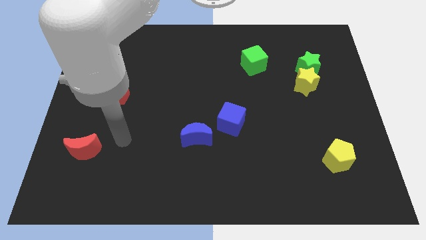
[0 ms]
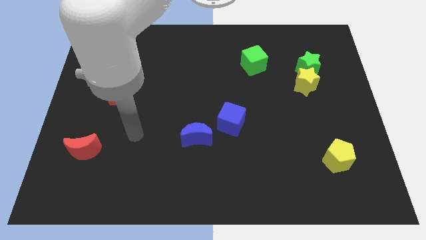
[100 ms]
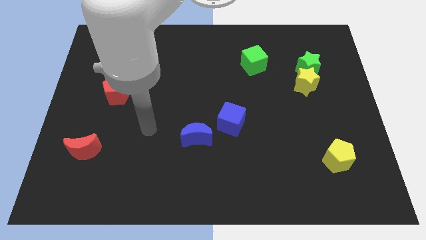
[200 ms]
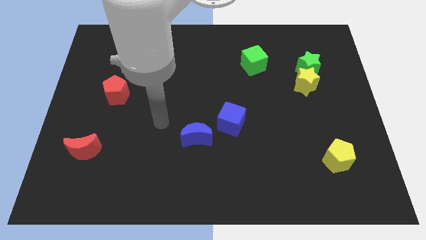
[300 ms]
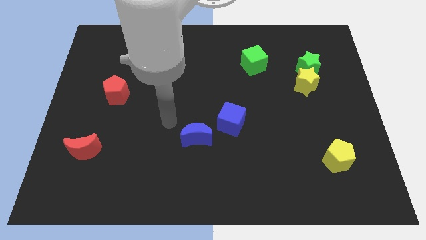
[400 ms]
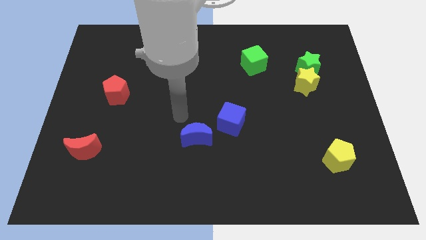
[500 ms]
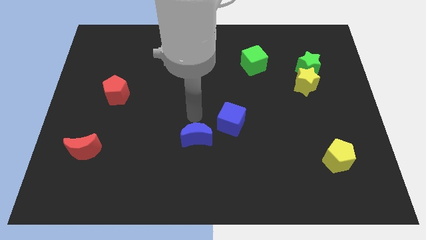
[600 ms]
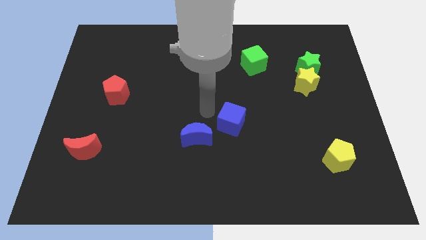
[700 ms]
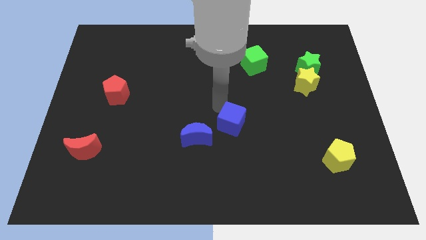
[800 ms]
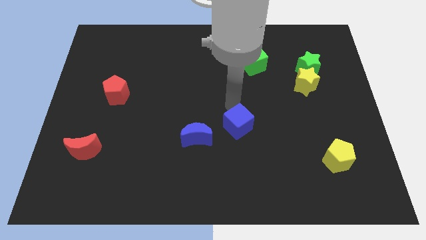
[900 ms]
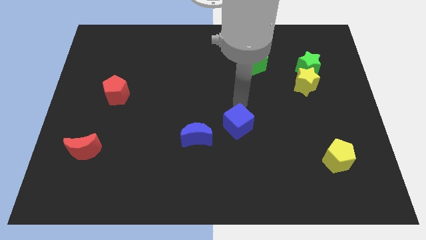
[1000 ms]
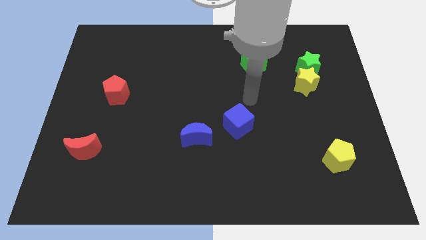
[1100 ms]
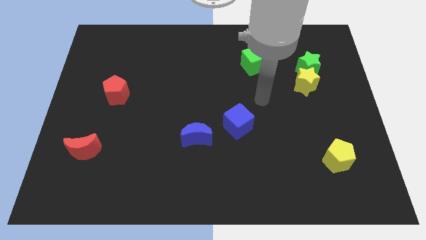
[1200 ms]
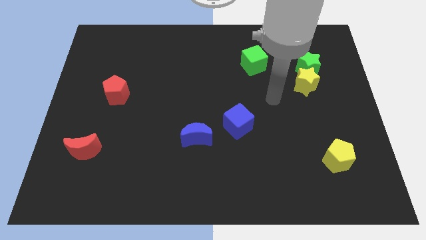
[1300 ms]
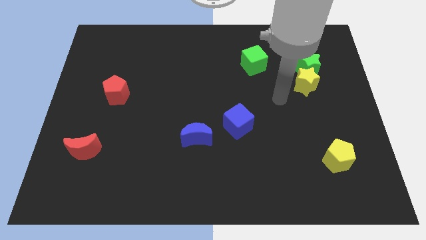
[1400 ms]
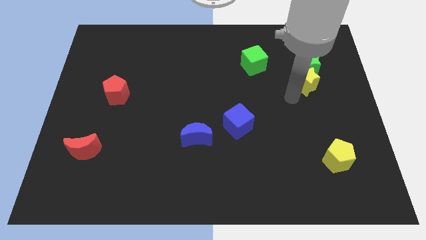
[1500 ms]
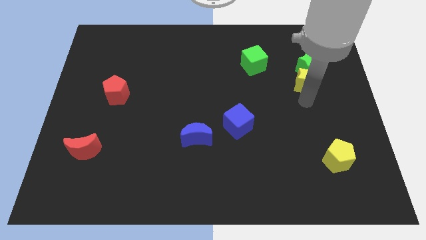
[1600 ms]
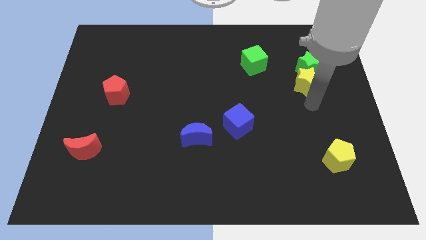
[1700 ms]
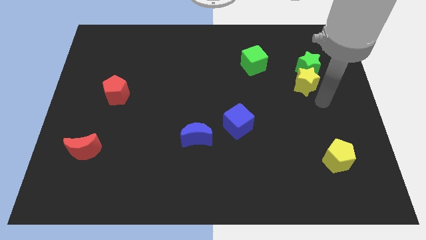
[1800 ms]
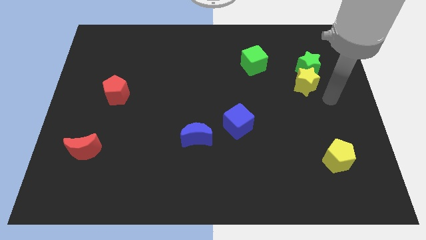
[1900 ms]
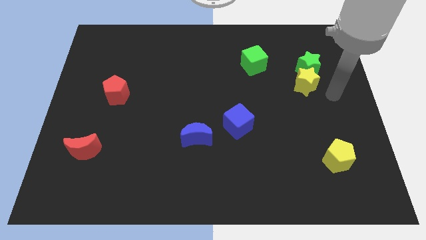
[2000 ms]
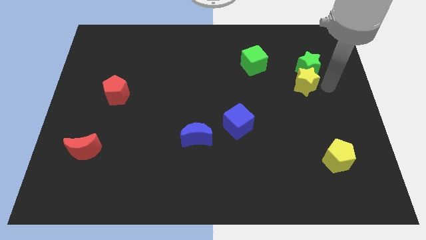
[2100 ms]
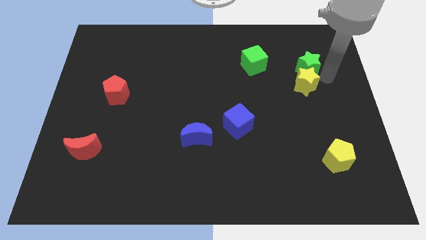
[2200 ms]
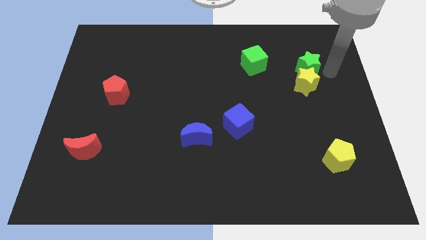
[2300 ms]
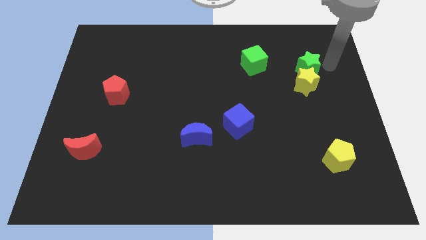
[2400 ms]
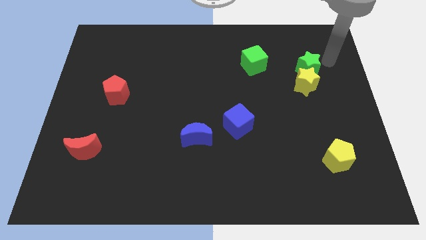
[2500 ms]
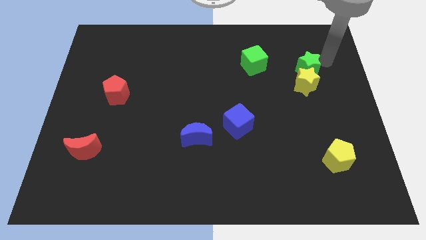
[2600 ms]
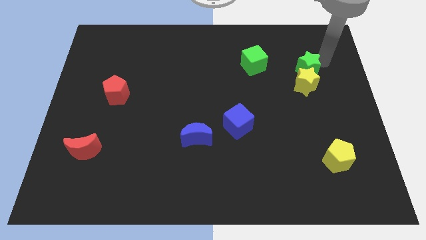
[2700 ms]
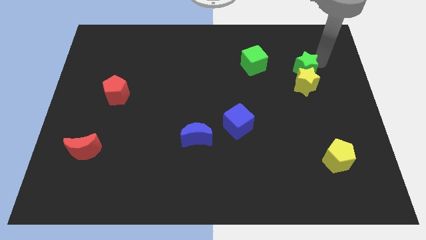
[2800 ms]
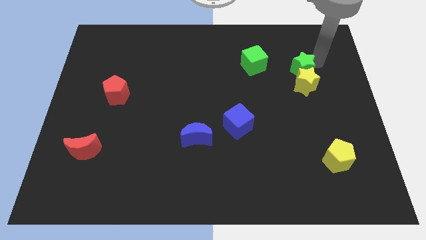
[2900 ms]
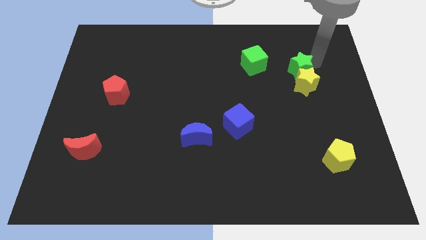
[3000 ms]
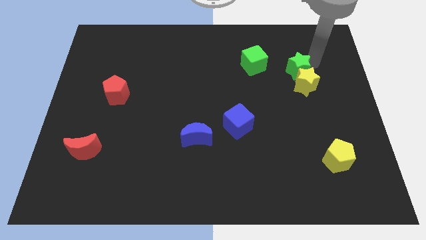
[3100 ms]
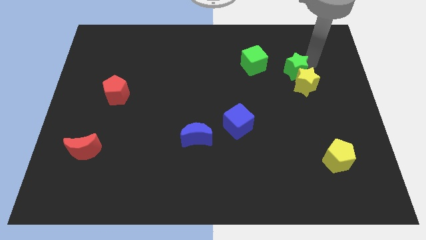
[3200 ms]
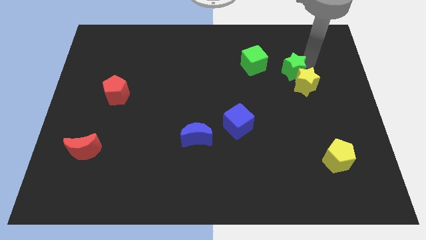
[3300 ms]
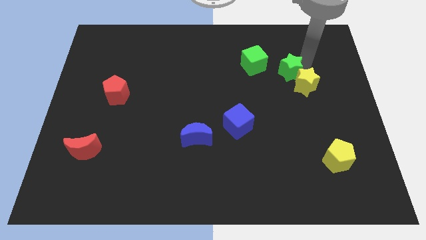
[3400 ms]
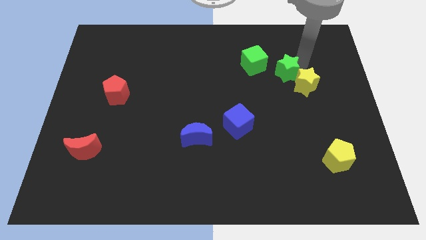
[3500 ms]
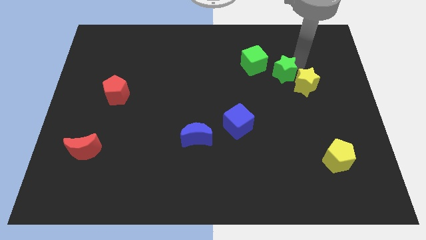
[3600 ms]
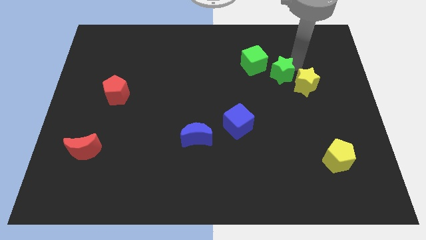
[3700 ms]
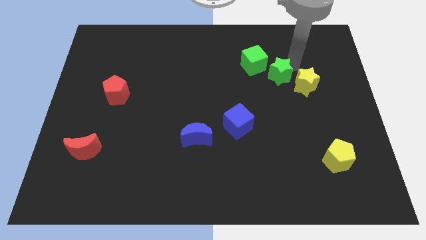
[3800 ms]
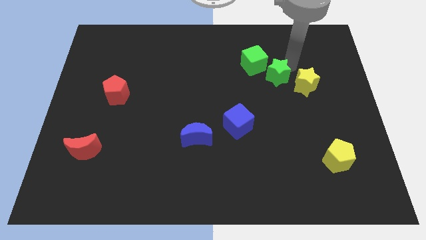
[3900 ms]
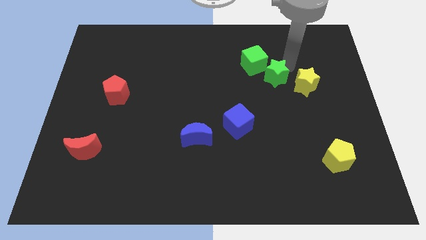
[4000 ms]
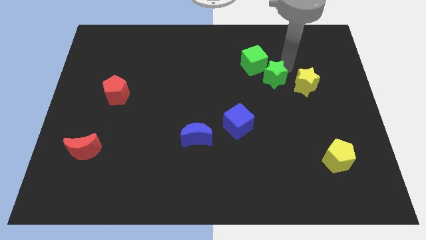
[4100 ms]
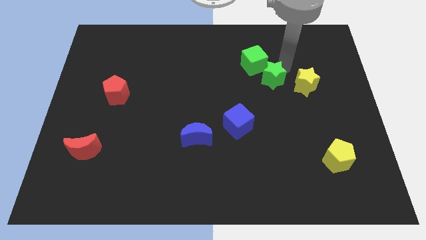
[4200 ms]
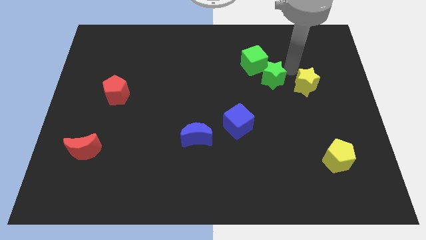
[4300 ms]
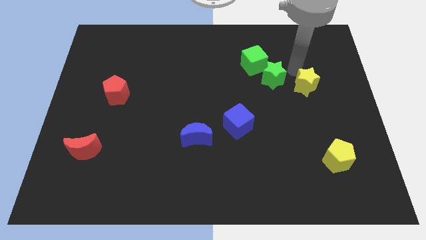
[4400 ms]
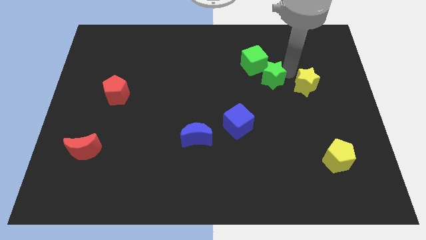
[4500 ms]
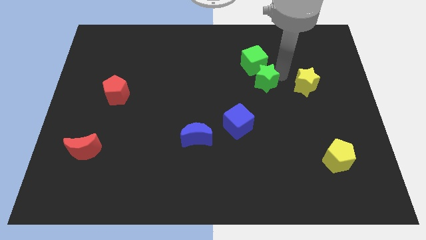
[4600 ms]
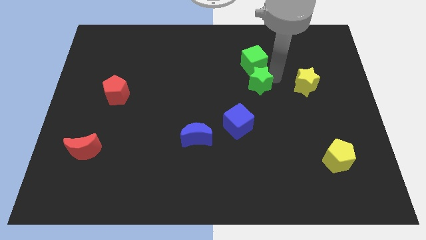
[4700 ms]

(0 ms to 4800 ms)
move the green star to the center

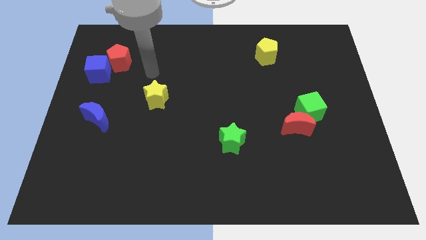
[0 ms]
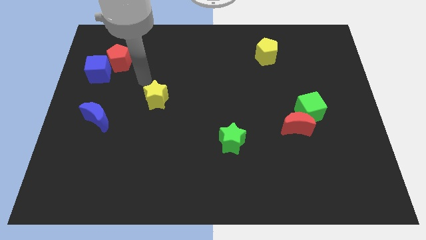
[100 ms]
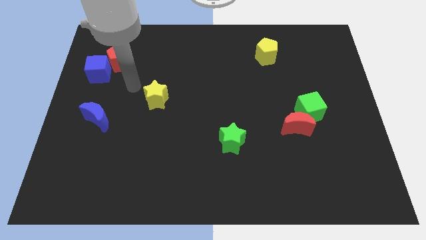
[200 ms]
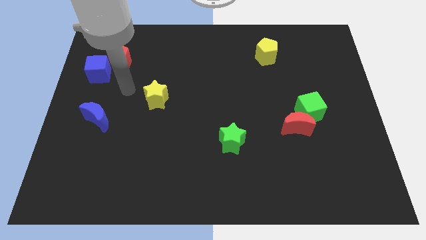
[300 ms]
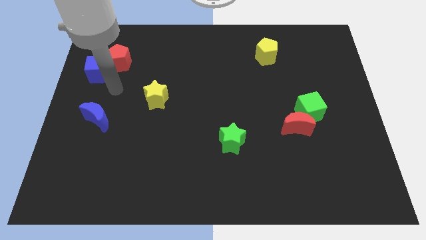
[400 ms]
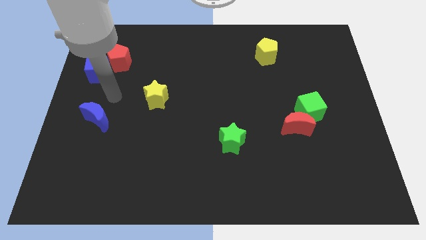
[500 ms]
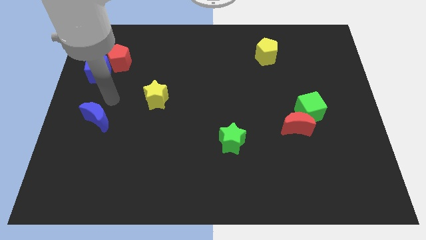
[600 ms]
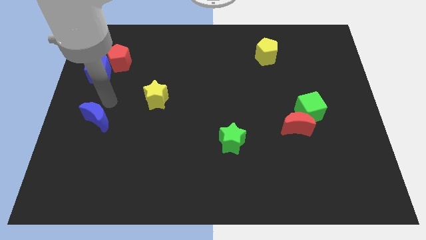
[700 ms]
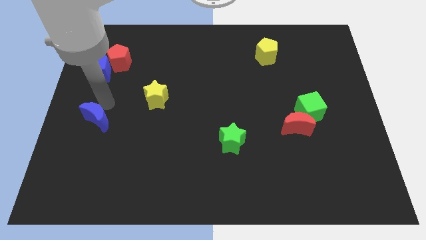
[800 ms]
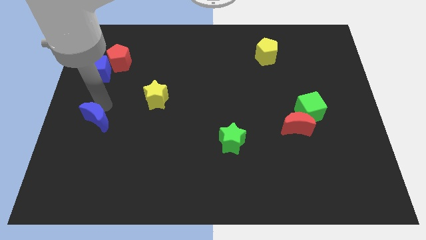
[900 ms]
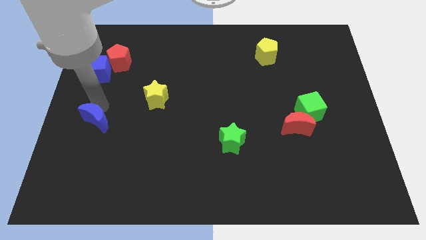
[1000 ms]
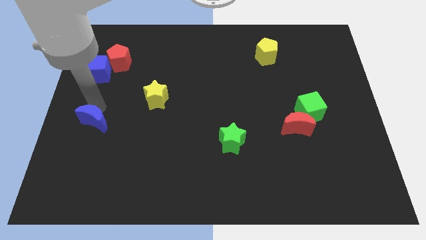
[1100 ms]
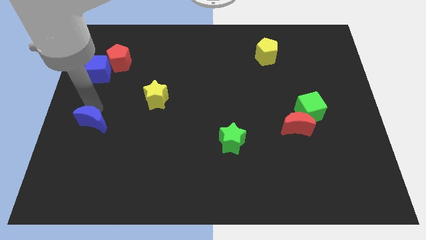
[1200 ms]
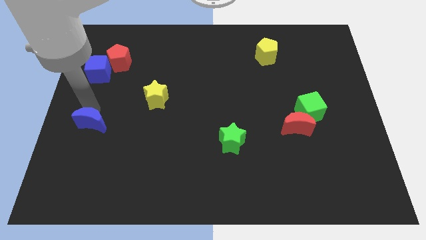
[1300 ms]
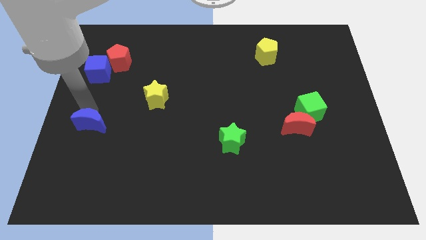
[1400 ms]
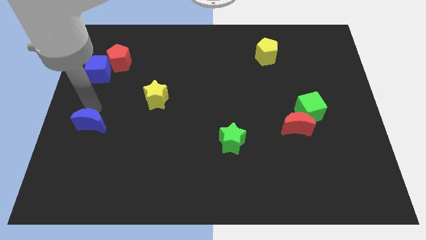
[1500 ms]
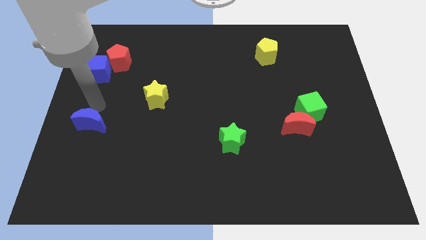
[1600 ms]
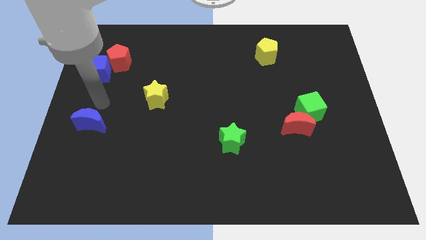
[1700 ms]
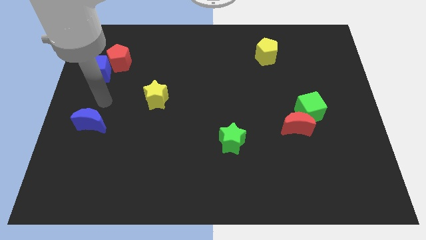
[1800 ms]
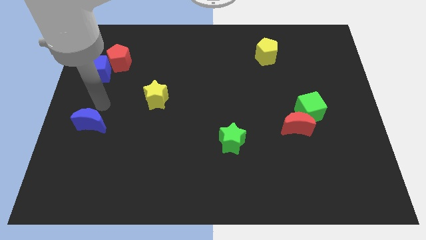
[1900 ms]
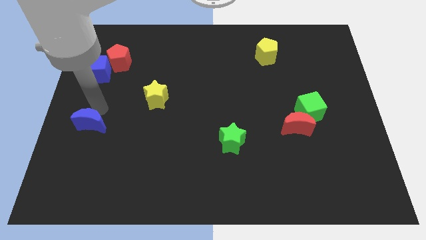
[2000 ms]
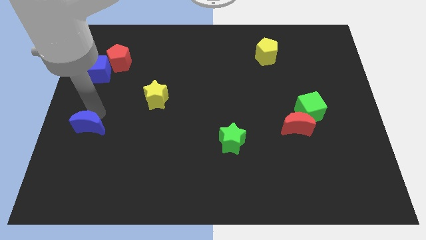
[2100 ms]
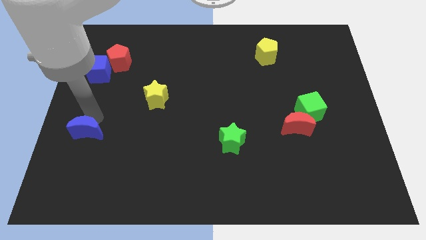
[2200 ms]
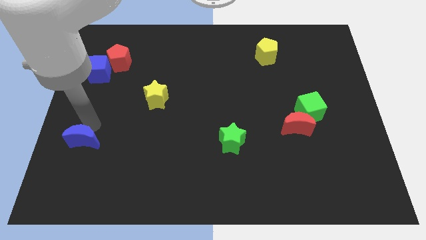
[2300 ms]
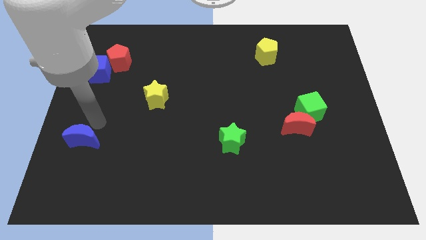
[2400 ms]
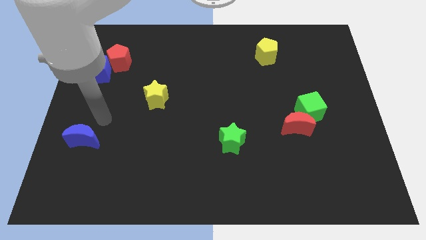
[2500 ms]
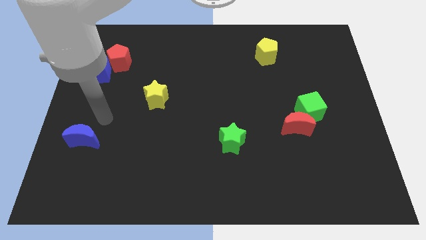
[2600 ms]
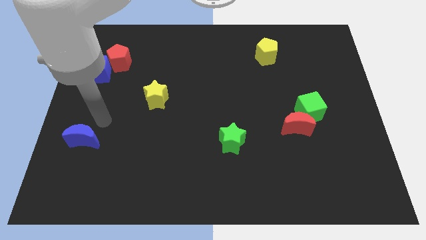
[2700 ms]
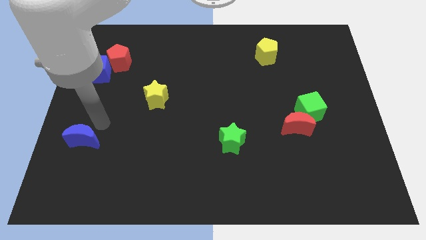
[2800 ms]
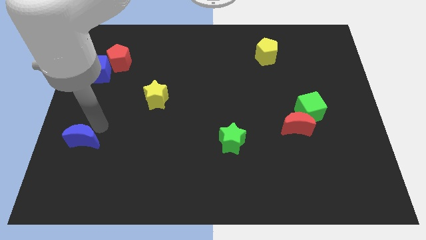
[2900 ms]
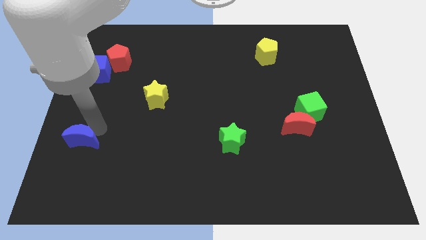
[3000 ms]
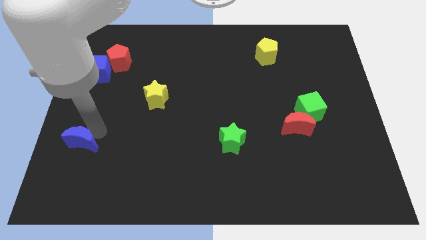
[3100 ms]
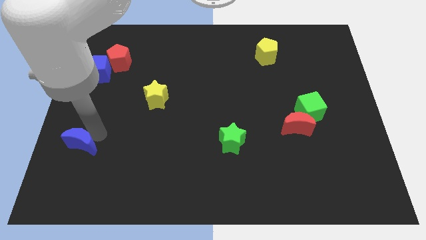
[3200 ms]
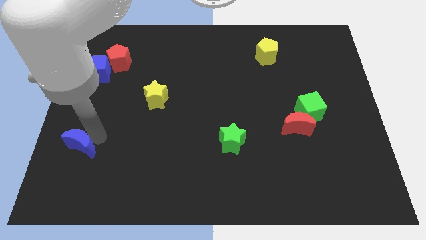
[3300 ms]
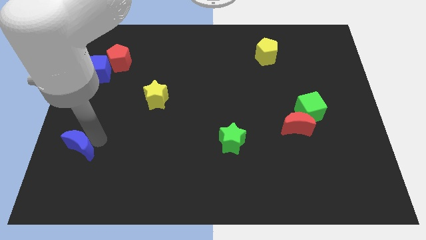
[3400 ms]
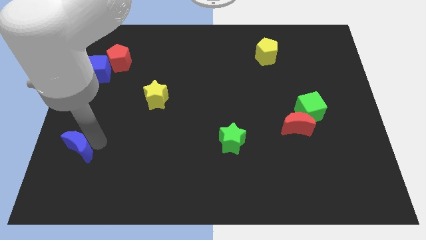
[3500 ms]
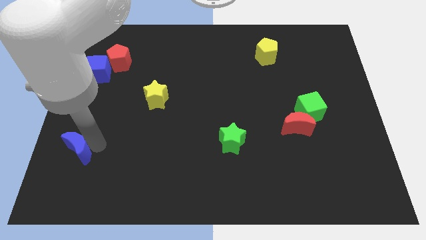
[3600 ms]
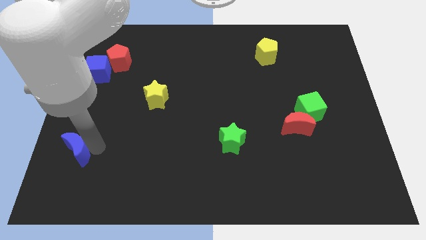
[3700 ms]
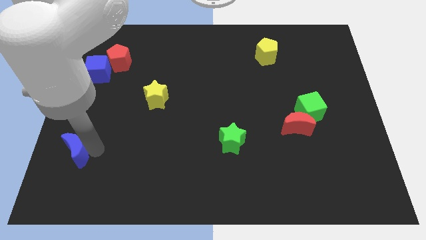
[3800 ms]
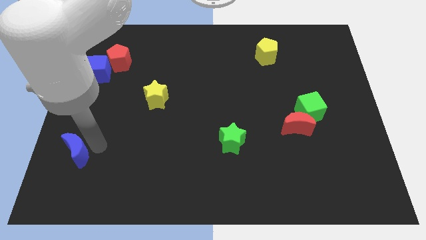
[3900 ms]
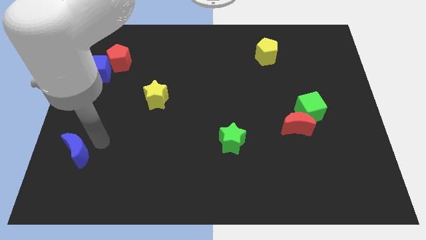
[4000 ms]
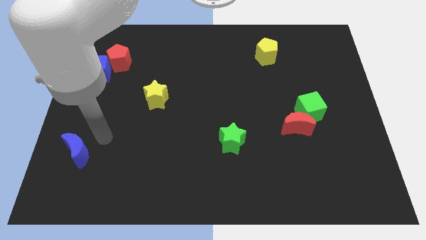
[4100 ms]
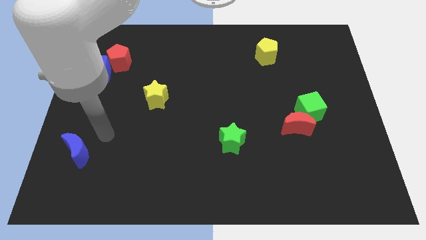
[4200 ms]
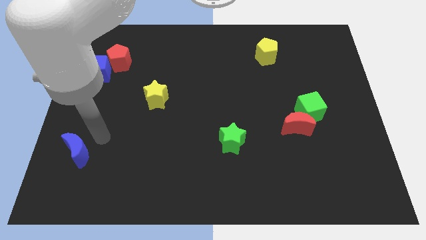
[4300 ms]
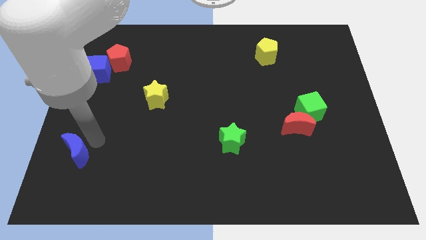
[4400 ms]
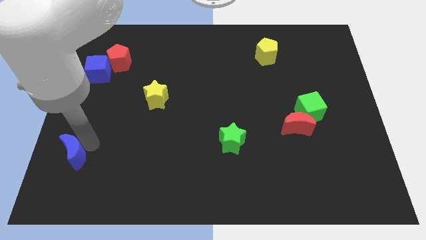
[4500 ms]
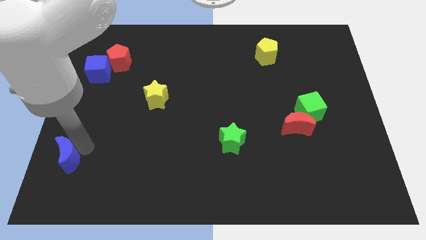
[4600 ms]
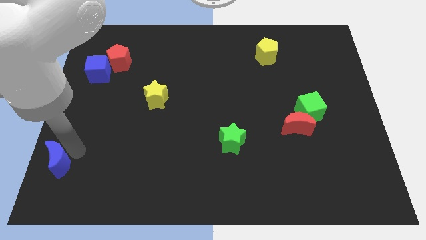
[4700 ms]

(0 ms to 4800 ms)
slide the blue moon to the bottom left
